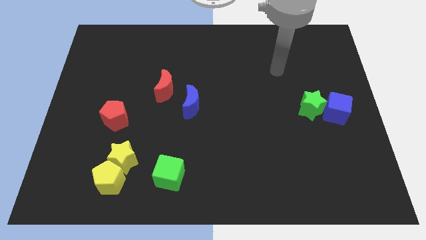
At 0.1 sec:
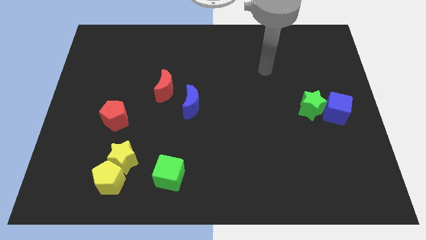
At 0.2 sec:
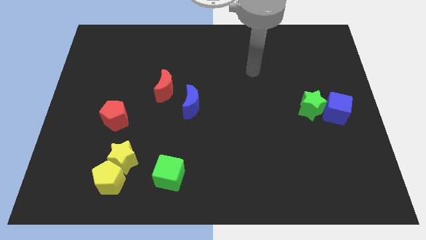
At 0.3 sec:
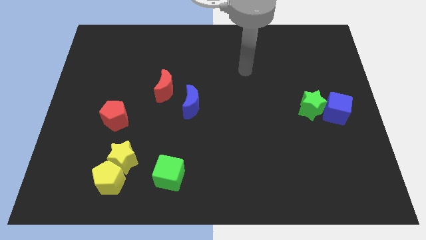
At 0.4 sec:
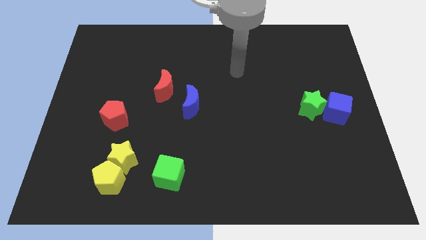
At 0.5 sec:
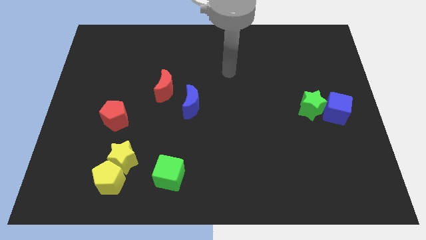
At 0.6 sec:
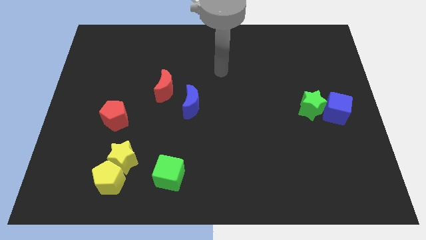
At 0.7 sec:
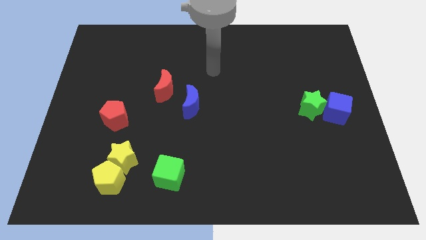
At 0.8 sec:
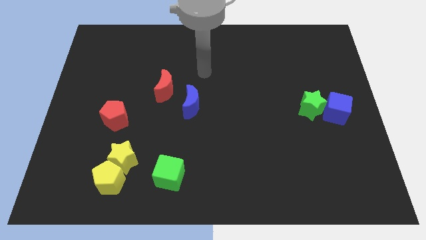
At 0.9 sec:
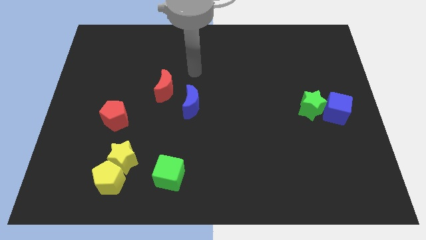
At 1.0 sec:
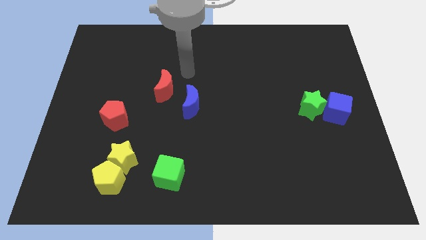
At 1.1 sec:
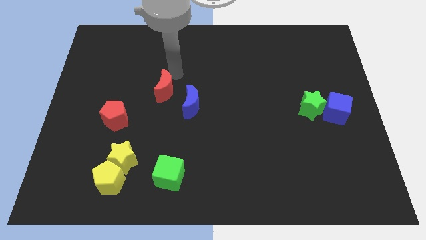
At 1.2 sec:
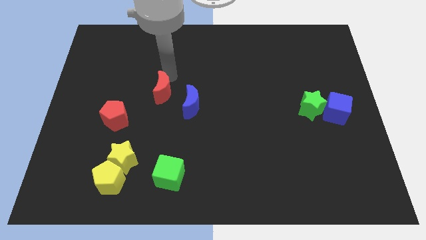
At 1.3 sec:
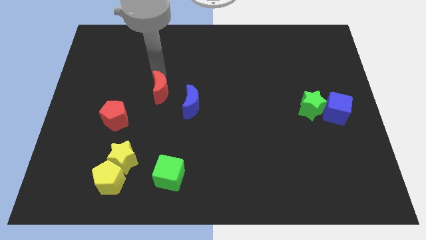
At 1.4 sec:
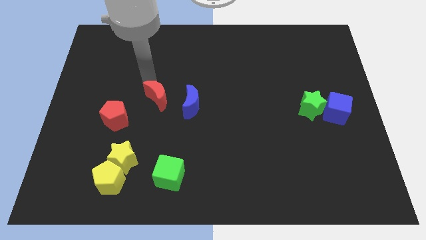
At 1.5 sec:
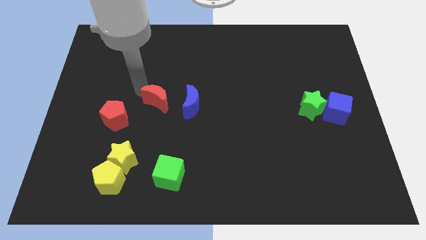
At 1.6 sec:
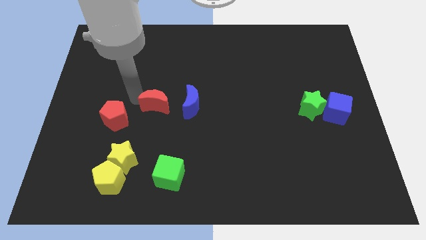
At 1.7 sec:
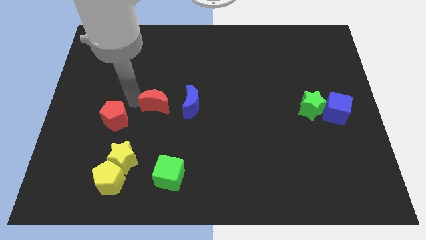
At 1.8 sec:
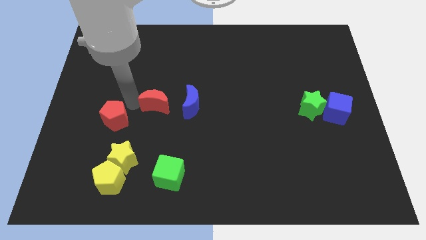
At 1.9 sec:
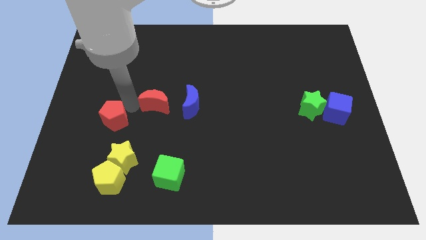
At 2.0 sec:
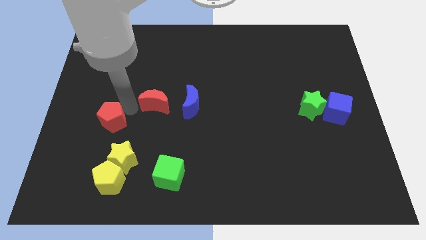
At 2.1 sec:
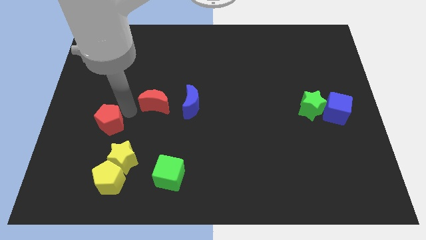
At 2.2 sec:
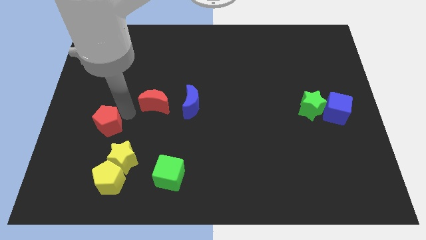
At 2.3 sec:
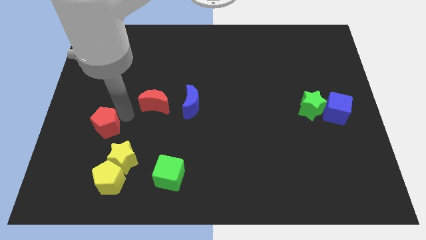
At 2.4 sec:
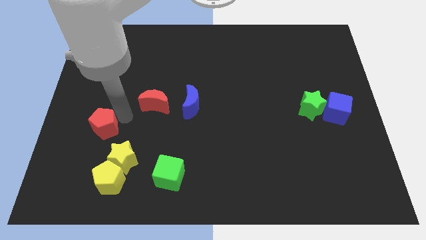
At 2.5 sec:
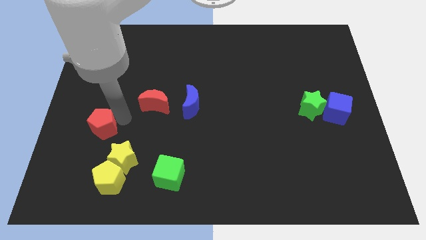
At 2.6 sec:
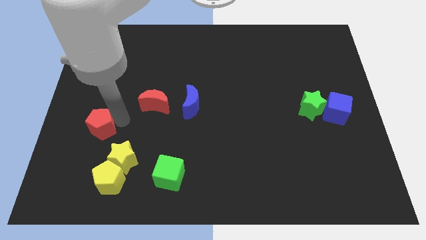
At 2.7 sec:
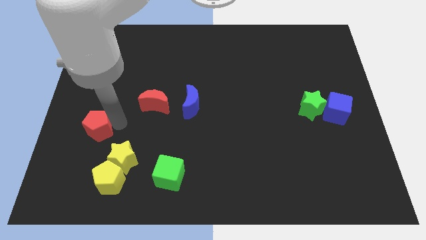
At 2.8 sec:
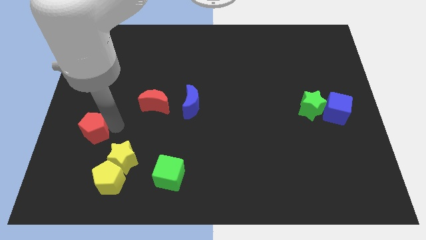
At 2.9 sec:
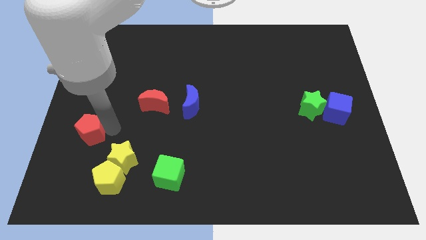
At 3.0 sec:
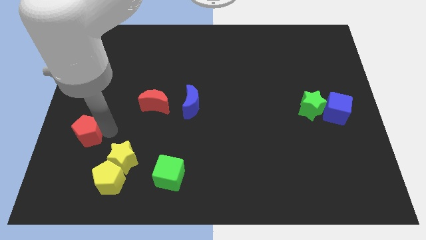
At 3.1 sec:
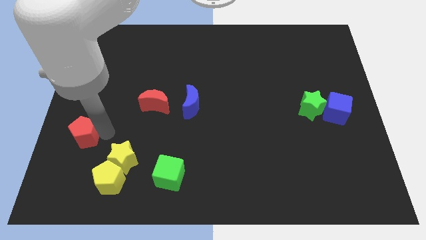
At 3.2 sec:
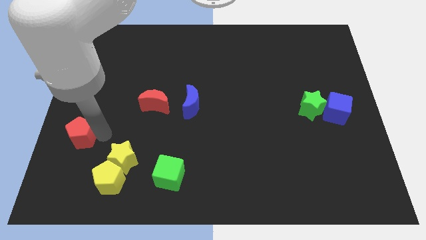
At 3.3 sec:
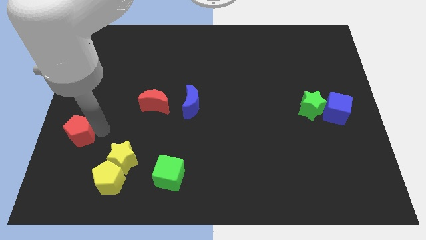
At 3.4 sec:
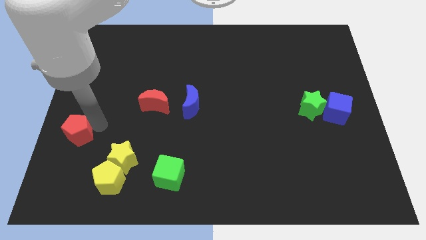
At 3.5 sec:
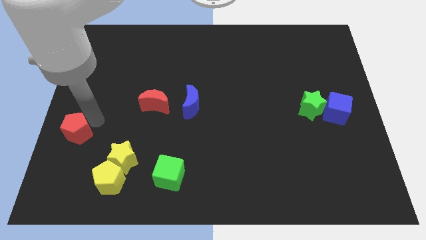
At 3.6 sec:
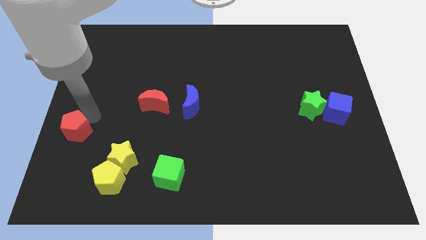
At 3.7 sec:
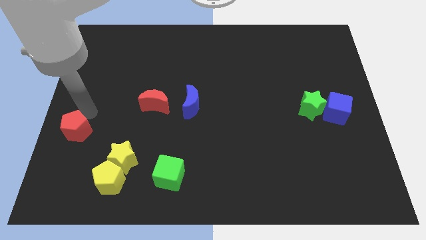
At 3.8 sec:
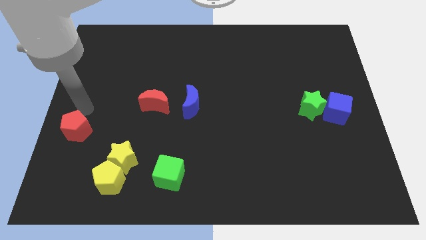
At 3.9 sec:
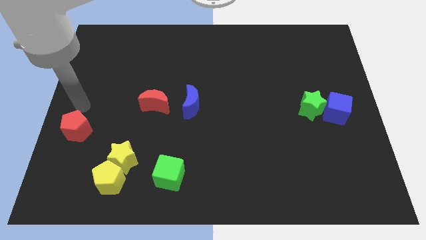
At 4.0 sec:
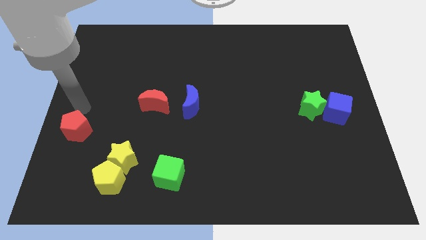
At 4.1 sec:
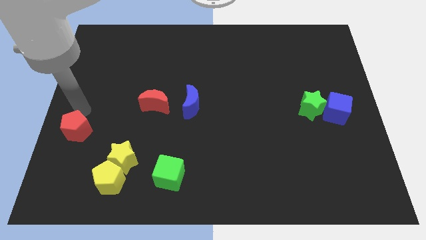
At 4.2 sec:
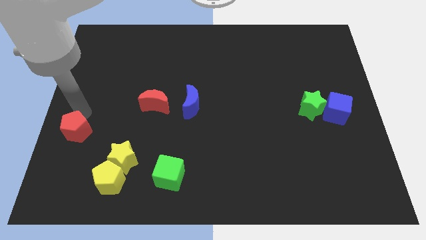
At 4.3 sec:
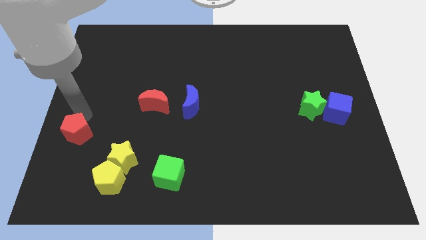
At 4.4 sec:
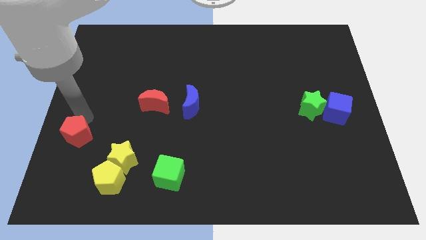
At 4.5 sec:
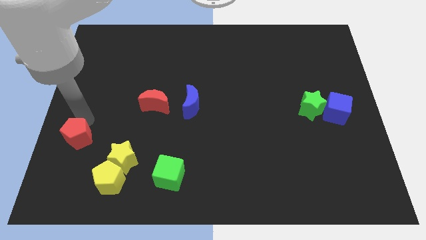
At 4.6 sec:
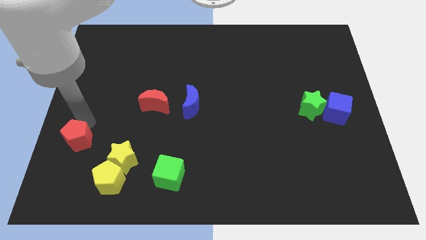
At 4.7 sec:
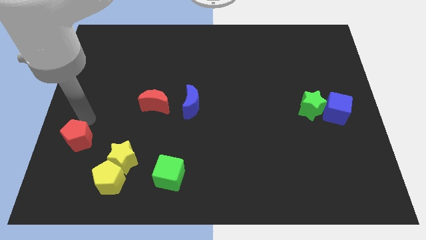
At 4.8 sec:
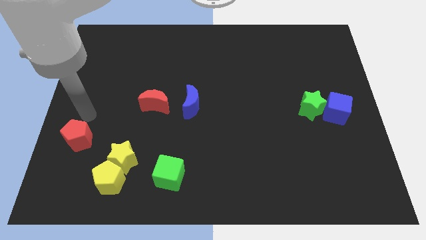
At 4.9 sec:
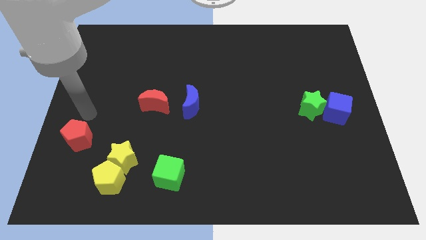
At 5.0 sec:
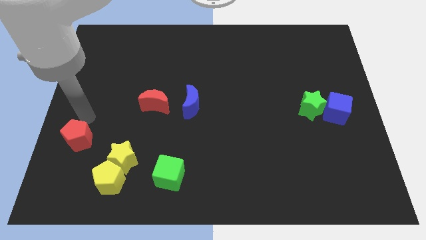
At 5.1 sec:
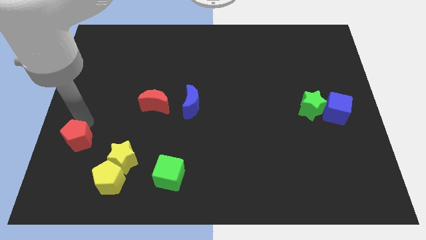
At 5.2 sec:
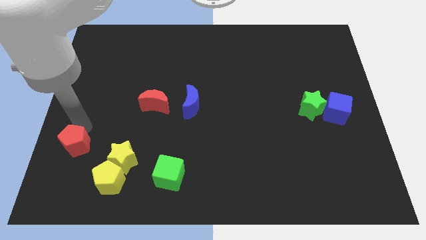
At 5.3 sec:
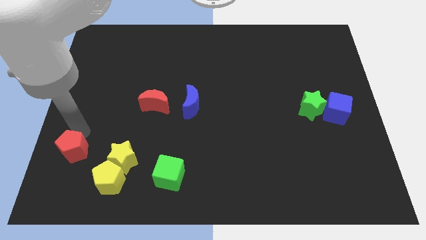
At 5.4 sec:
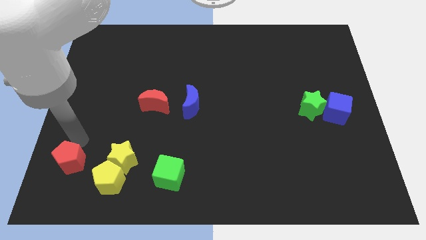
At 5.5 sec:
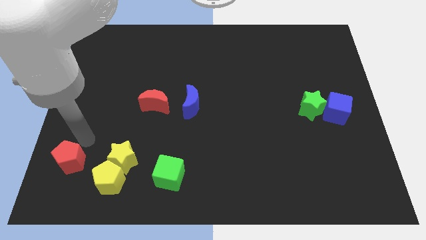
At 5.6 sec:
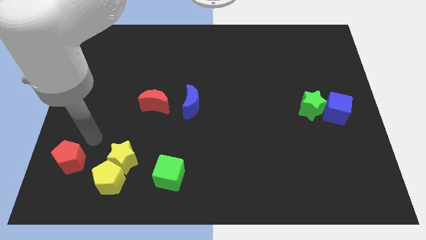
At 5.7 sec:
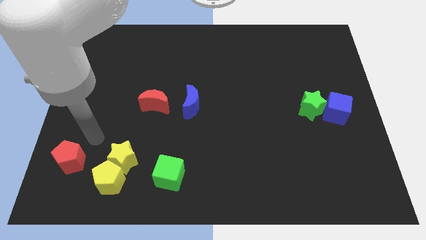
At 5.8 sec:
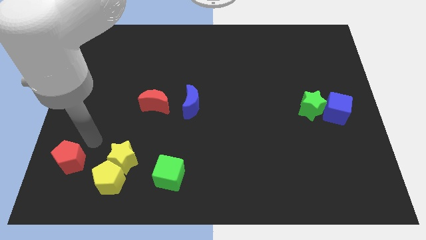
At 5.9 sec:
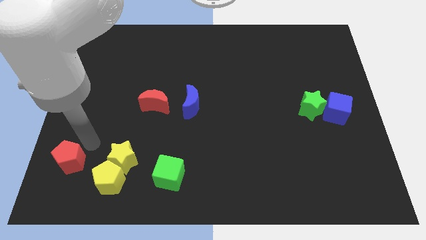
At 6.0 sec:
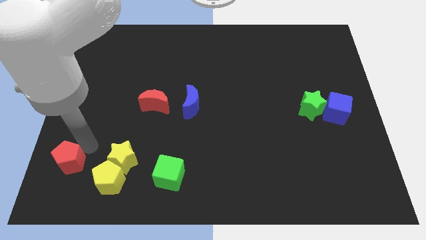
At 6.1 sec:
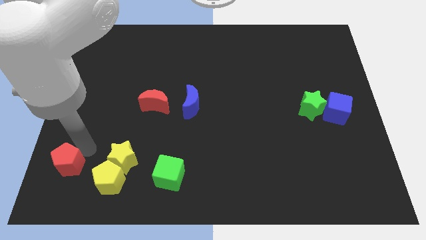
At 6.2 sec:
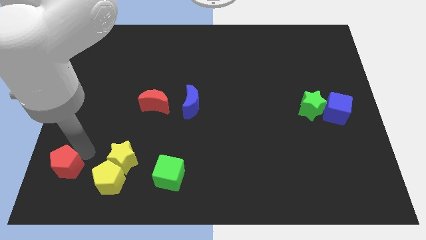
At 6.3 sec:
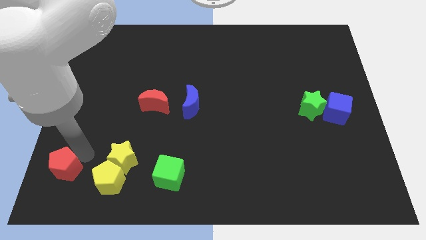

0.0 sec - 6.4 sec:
slide the red pentagon to the bottom left of the board
